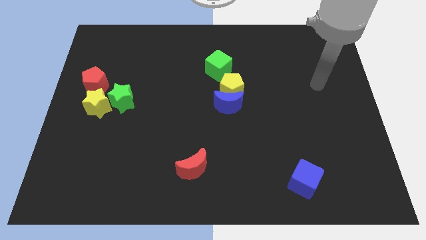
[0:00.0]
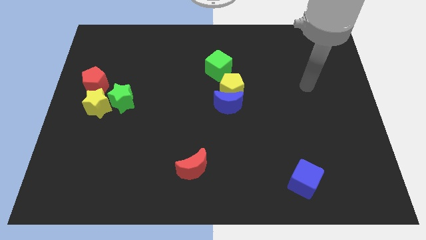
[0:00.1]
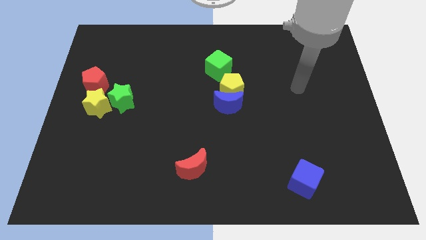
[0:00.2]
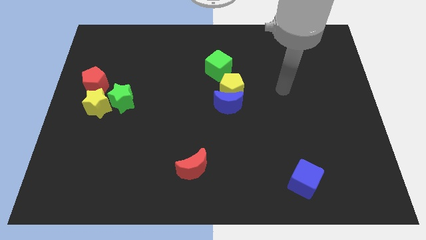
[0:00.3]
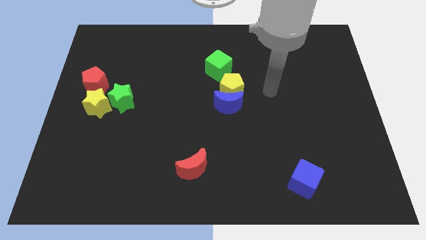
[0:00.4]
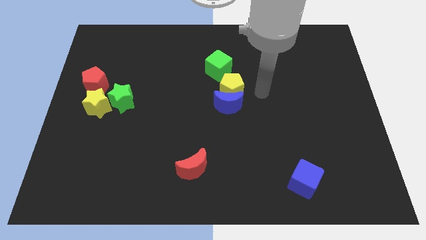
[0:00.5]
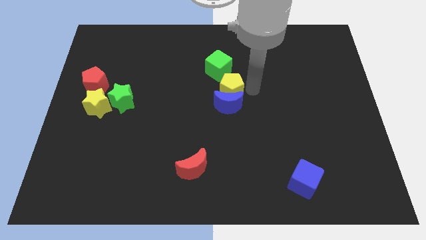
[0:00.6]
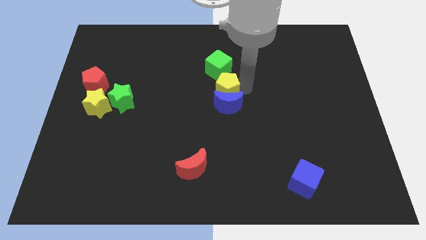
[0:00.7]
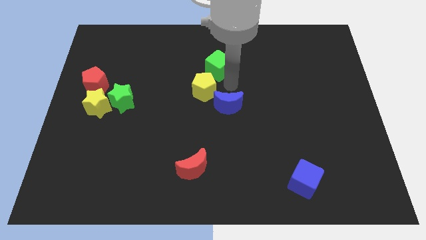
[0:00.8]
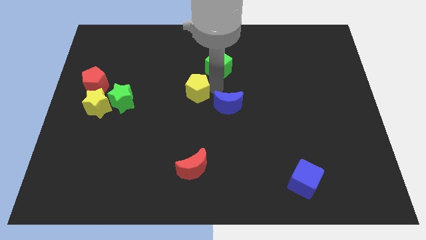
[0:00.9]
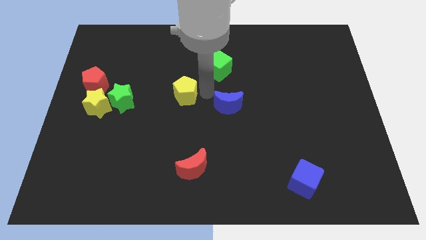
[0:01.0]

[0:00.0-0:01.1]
move the blue moon away from the yellow pentagon

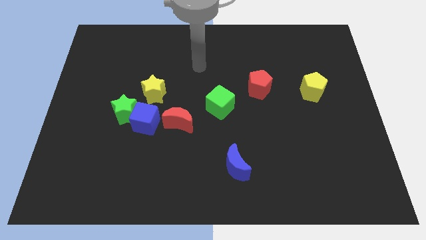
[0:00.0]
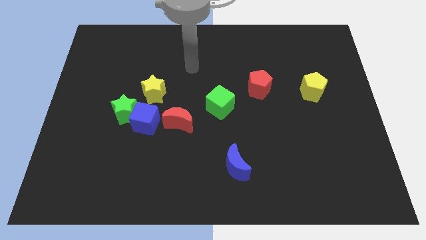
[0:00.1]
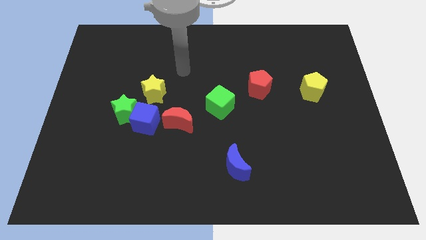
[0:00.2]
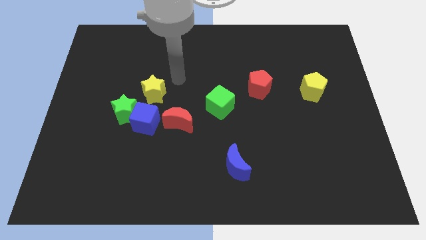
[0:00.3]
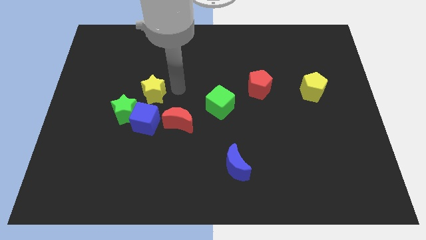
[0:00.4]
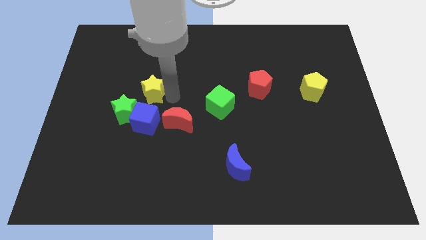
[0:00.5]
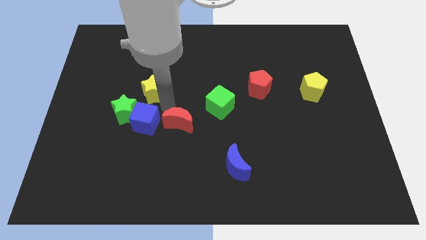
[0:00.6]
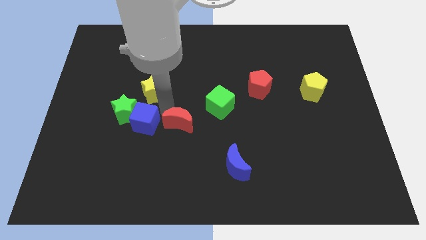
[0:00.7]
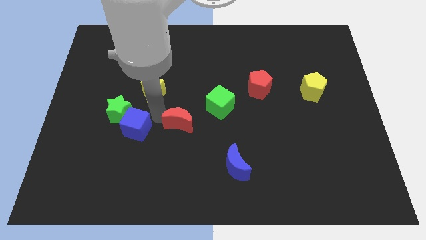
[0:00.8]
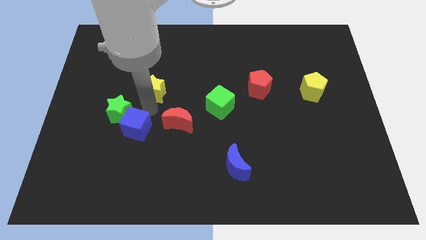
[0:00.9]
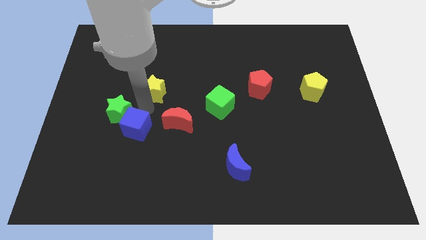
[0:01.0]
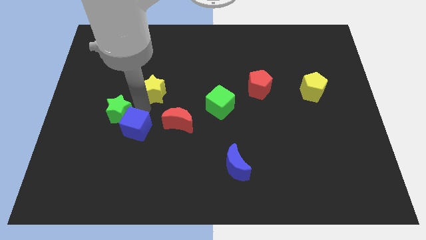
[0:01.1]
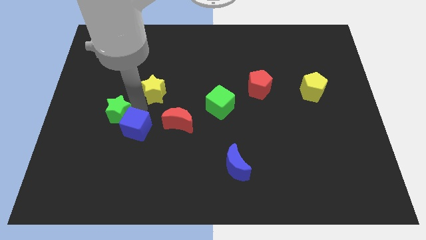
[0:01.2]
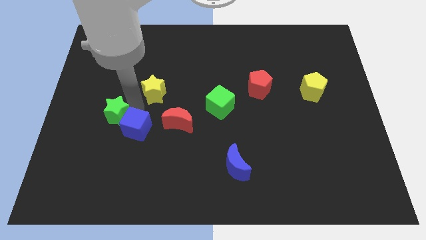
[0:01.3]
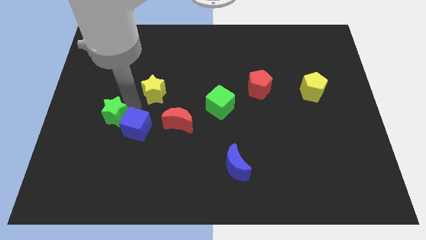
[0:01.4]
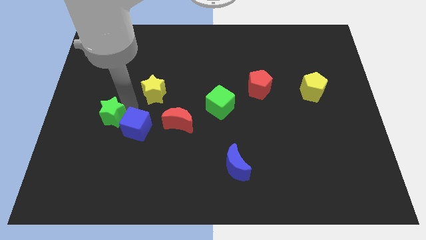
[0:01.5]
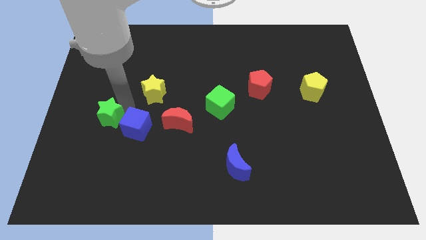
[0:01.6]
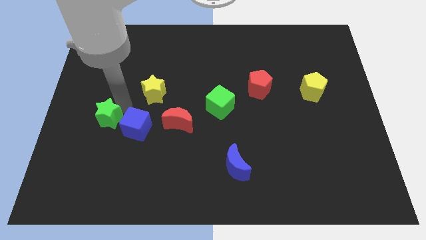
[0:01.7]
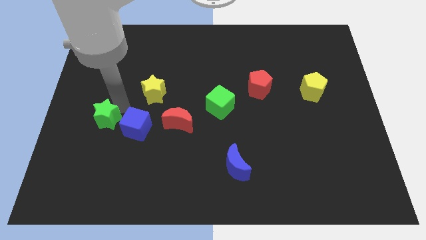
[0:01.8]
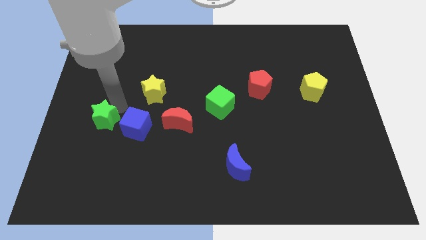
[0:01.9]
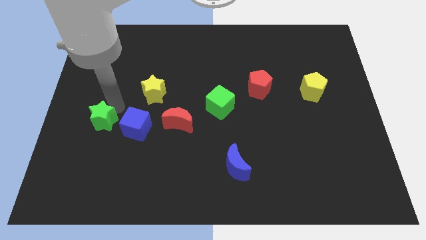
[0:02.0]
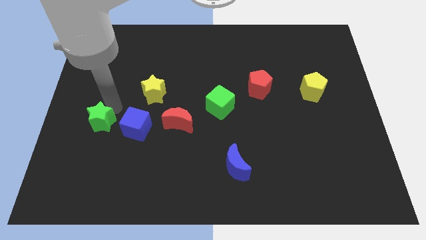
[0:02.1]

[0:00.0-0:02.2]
separate the green star from the blue cube and yellow star

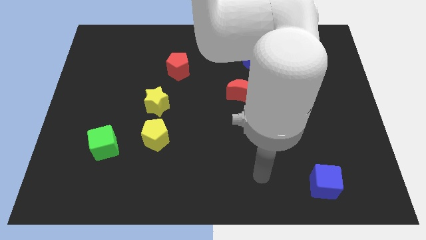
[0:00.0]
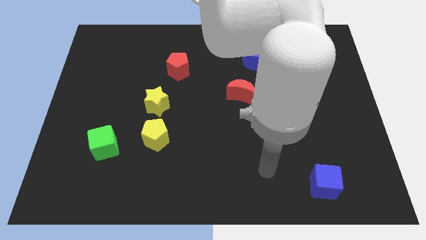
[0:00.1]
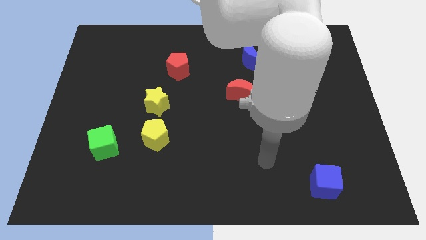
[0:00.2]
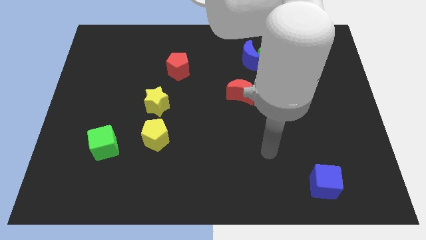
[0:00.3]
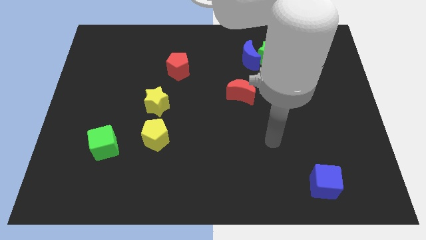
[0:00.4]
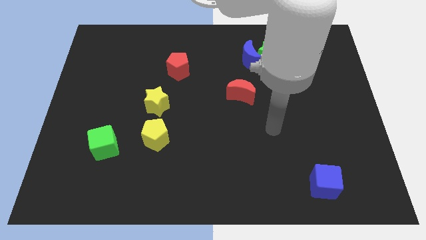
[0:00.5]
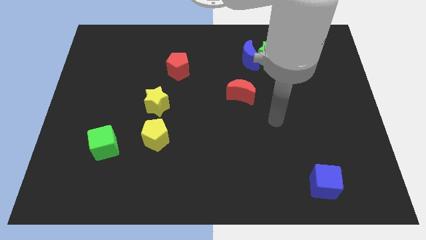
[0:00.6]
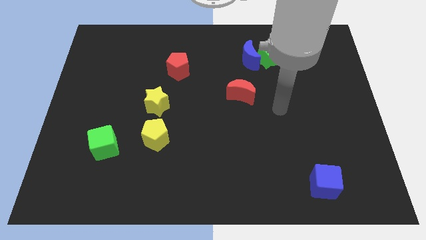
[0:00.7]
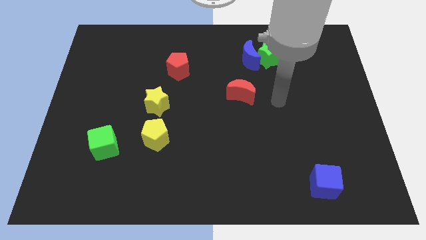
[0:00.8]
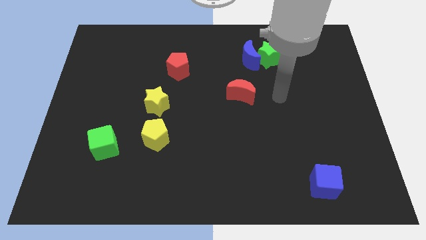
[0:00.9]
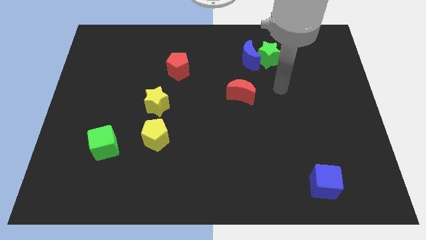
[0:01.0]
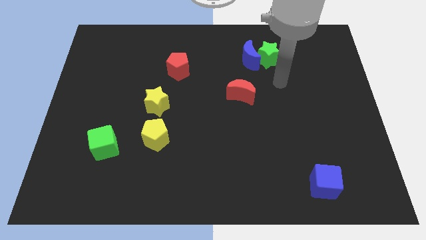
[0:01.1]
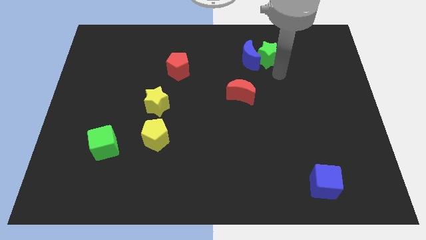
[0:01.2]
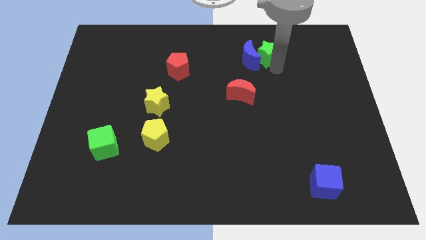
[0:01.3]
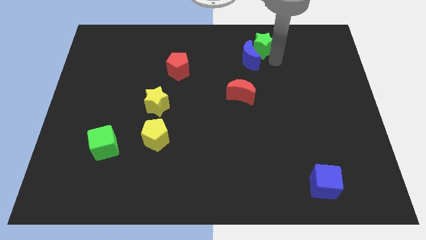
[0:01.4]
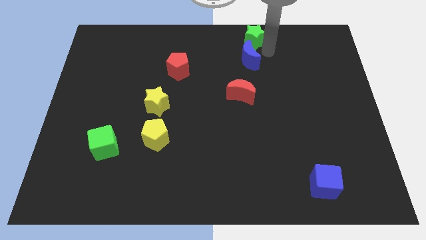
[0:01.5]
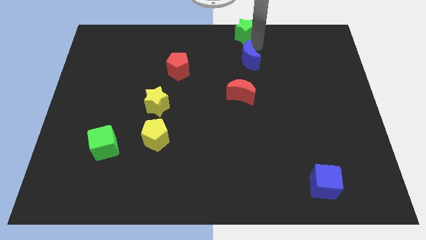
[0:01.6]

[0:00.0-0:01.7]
pull the blue moon apart from the green star

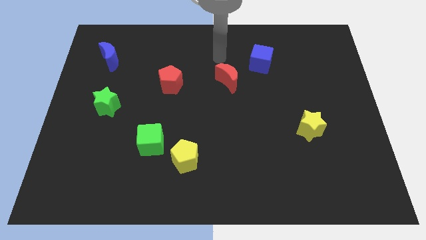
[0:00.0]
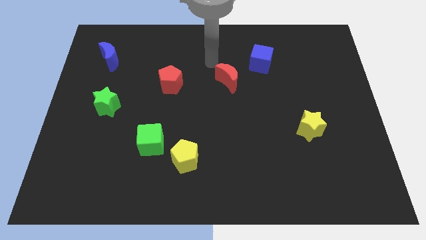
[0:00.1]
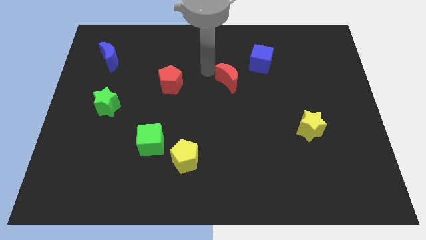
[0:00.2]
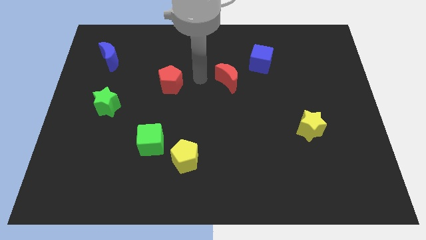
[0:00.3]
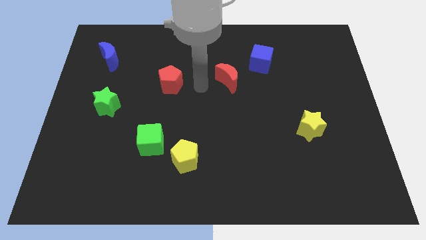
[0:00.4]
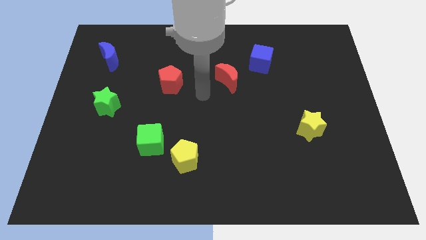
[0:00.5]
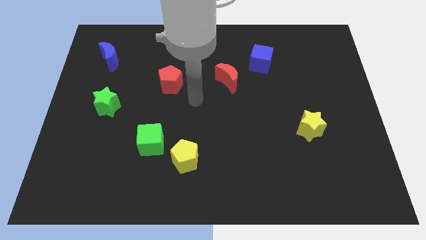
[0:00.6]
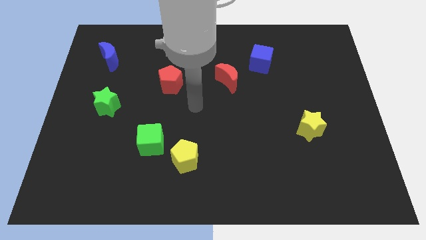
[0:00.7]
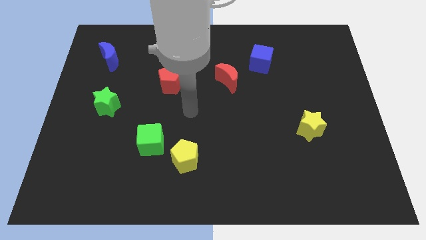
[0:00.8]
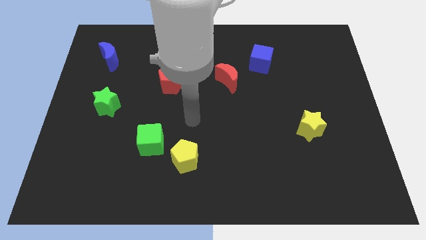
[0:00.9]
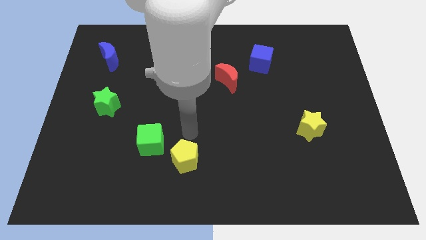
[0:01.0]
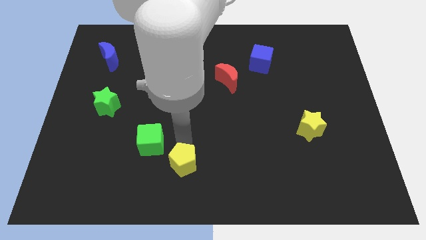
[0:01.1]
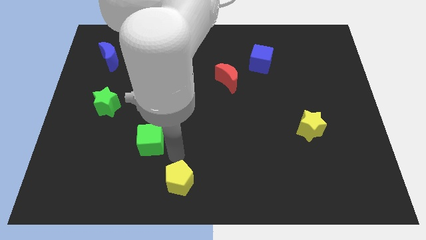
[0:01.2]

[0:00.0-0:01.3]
separate the green cube from the yellow pentagon

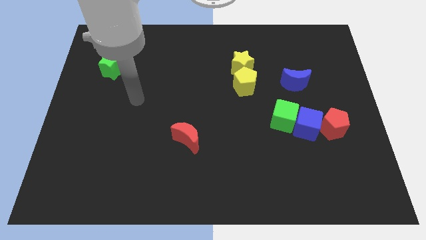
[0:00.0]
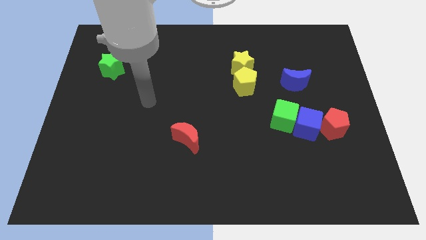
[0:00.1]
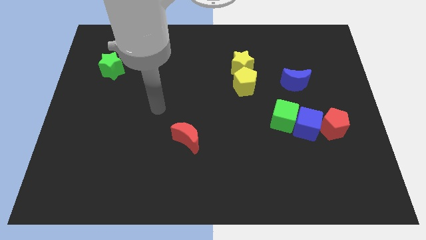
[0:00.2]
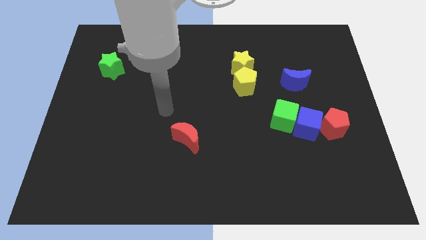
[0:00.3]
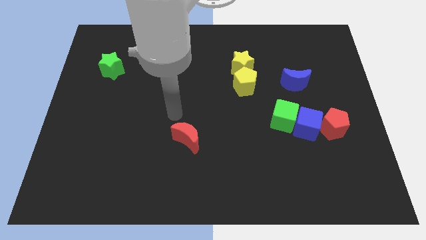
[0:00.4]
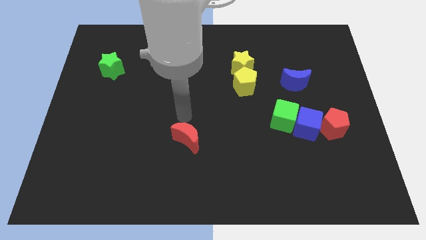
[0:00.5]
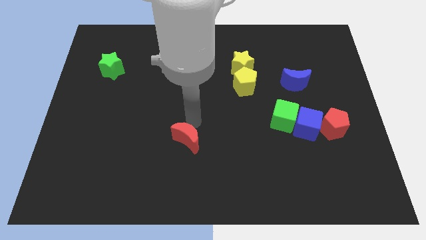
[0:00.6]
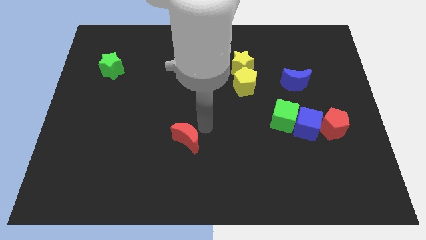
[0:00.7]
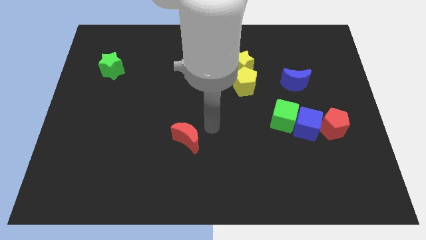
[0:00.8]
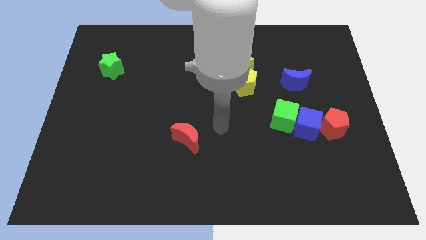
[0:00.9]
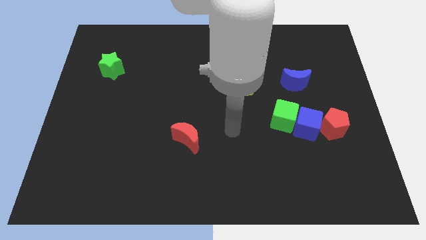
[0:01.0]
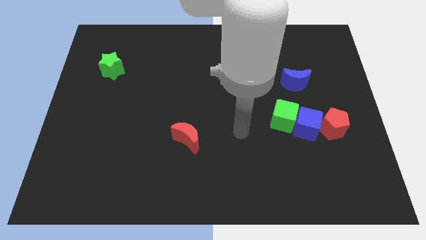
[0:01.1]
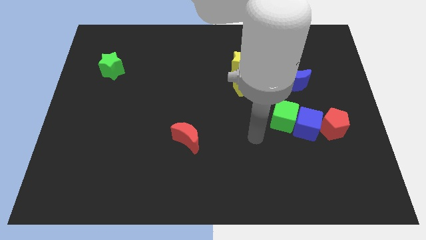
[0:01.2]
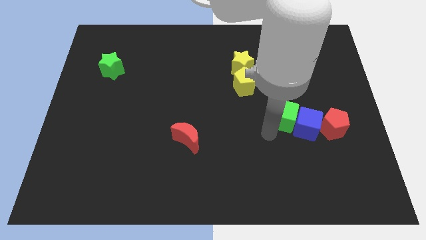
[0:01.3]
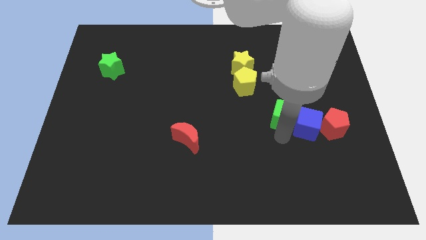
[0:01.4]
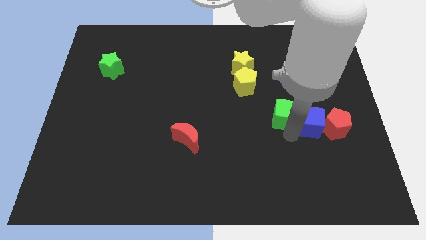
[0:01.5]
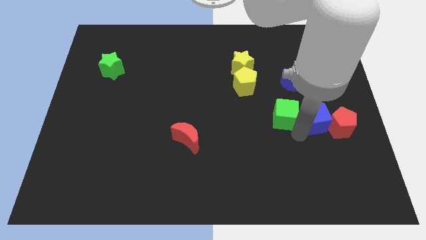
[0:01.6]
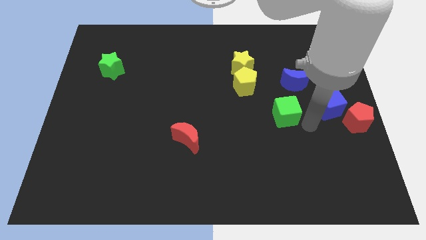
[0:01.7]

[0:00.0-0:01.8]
separate the green cube from the blue cube

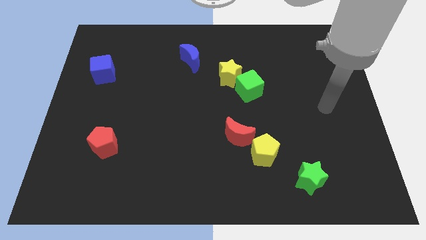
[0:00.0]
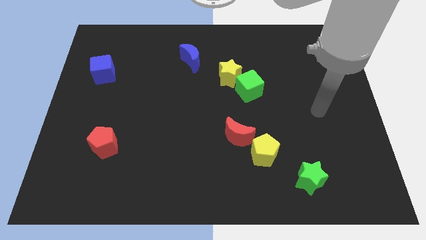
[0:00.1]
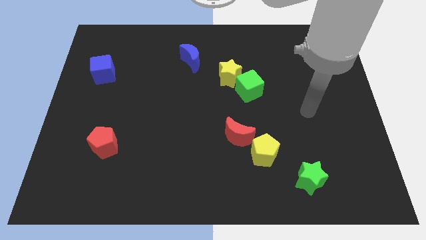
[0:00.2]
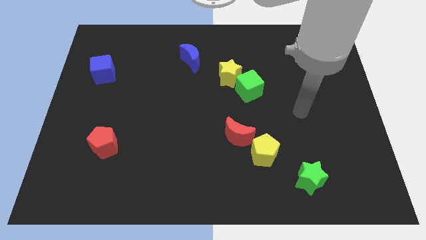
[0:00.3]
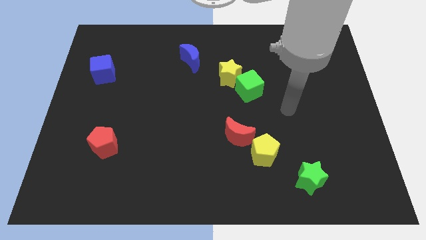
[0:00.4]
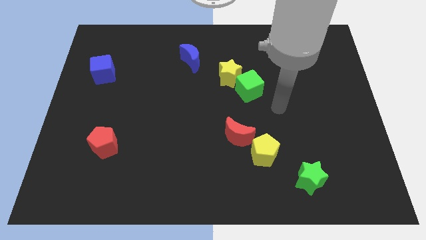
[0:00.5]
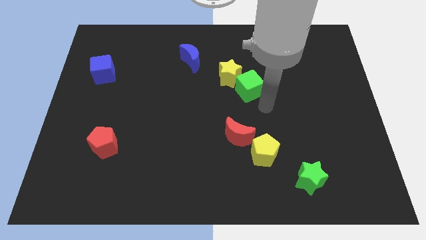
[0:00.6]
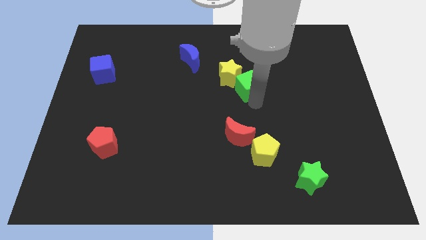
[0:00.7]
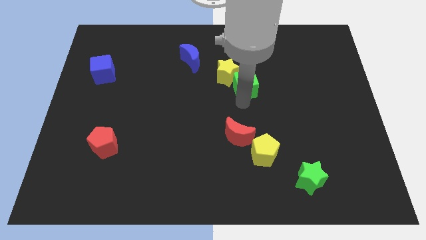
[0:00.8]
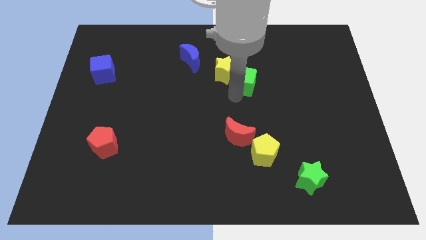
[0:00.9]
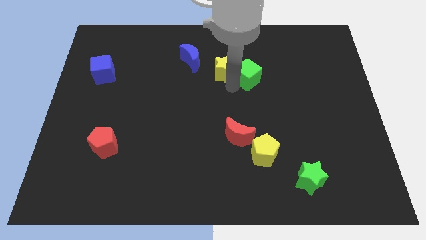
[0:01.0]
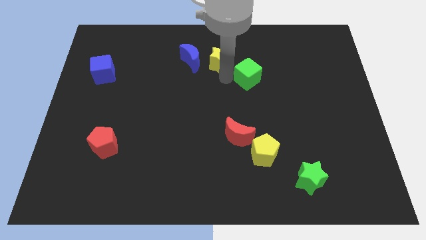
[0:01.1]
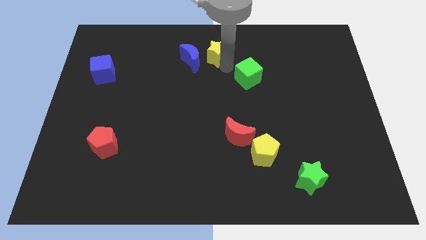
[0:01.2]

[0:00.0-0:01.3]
move the green cube away from the yellow star
